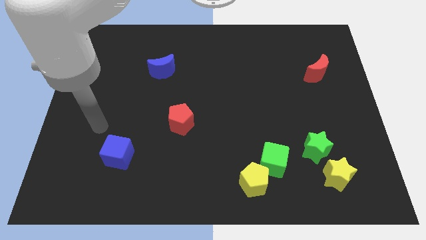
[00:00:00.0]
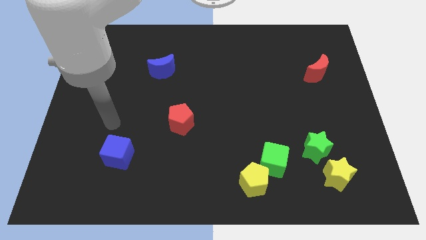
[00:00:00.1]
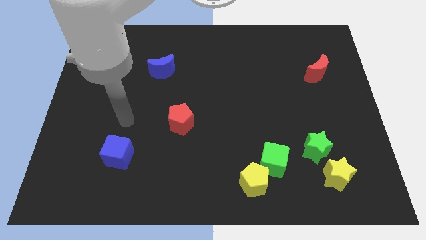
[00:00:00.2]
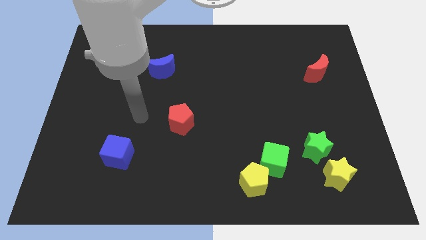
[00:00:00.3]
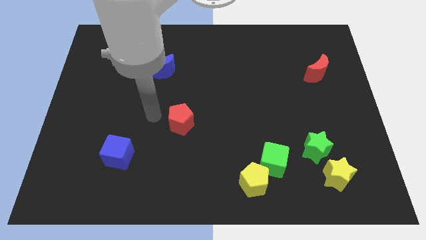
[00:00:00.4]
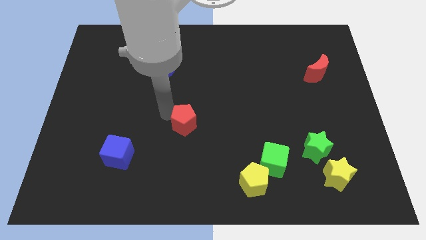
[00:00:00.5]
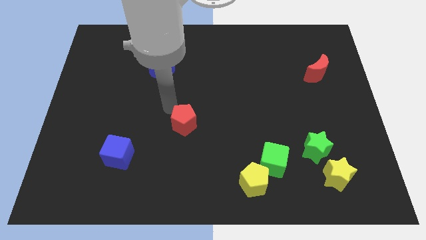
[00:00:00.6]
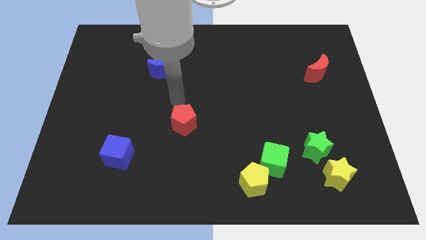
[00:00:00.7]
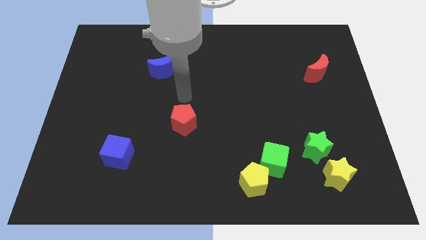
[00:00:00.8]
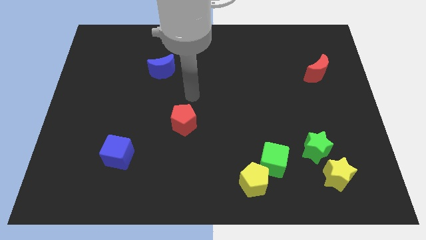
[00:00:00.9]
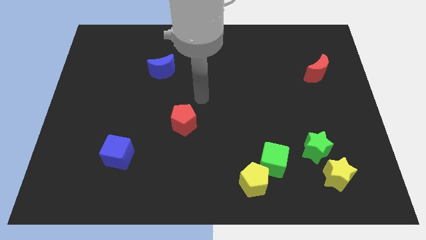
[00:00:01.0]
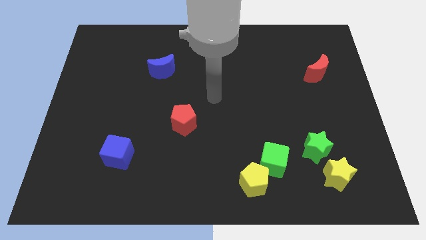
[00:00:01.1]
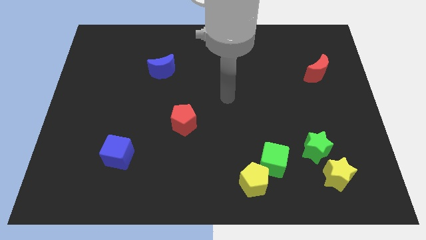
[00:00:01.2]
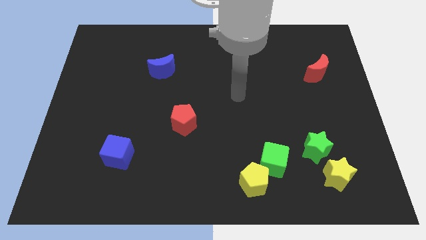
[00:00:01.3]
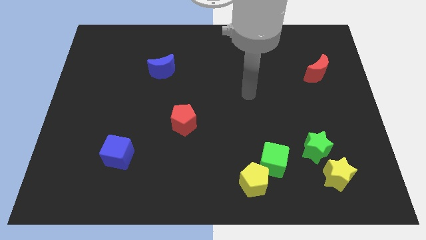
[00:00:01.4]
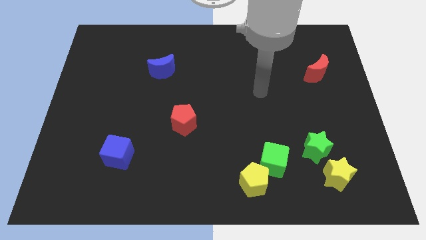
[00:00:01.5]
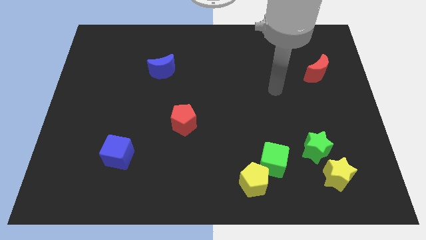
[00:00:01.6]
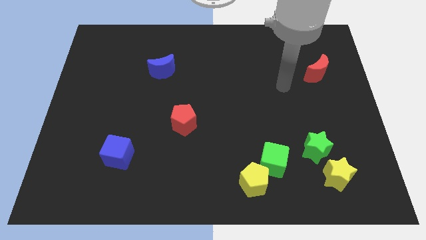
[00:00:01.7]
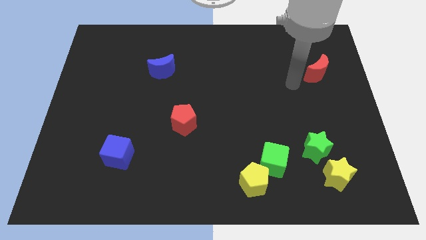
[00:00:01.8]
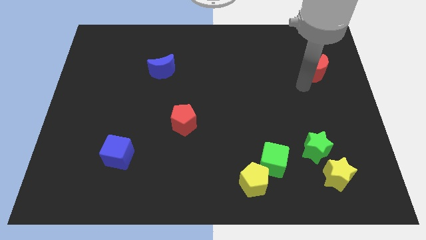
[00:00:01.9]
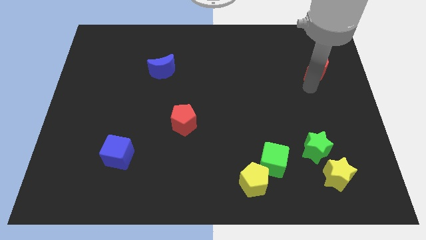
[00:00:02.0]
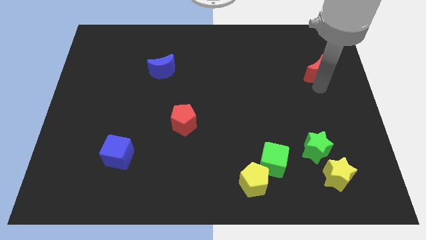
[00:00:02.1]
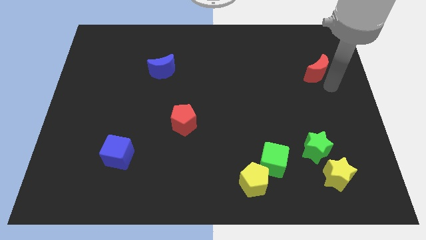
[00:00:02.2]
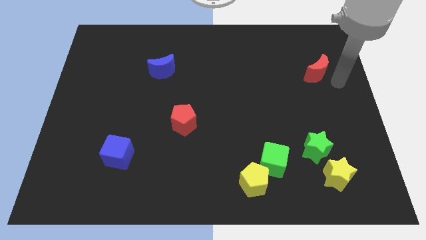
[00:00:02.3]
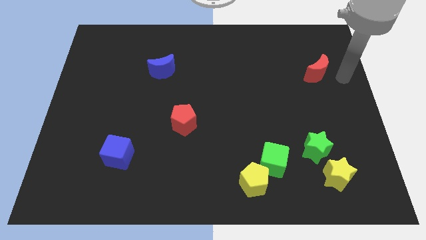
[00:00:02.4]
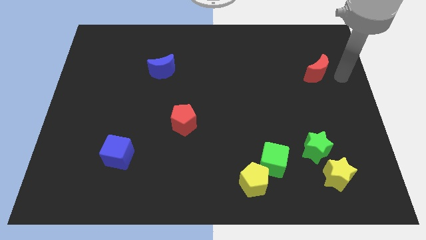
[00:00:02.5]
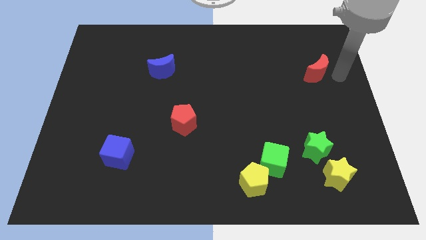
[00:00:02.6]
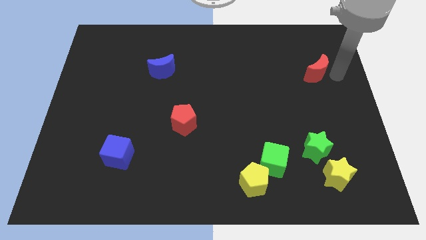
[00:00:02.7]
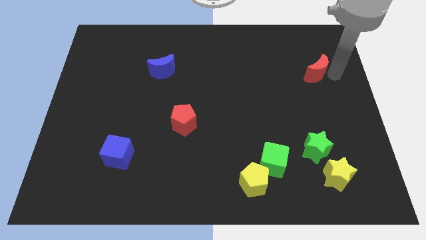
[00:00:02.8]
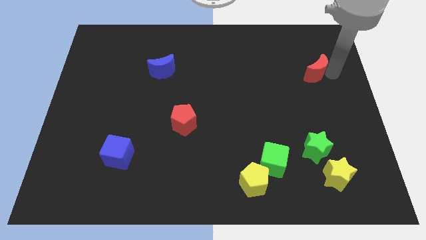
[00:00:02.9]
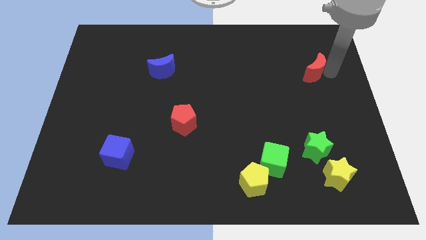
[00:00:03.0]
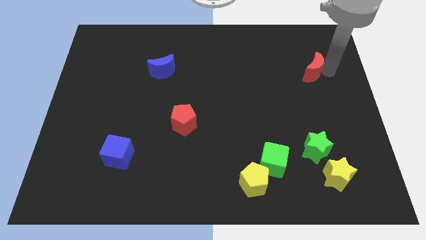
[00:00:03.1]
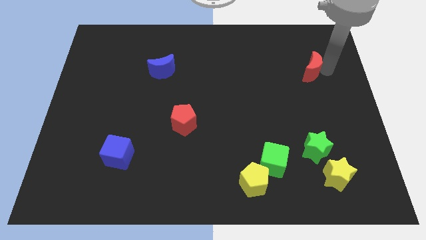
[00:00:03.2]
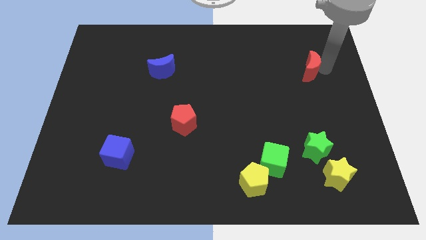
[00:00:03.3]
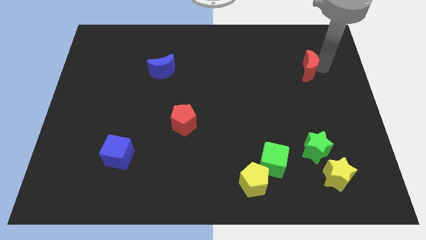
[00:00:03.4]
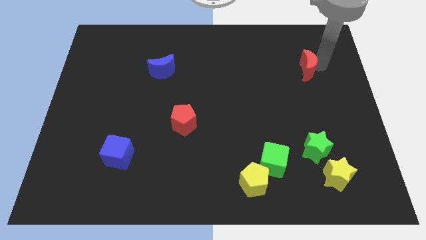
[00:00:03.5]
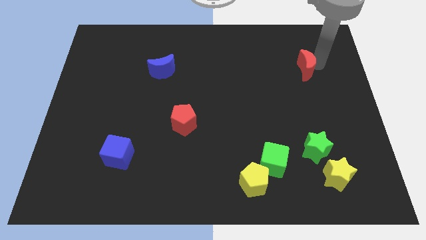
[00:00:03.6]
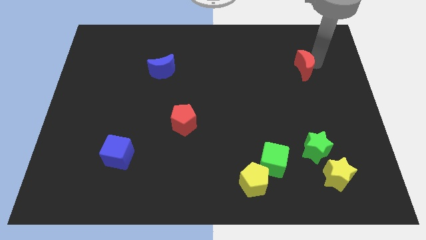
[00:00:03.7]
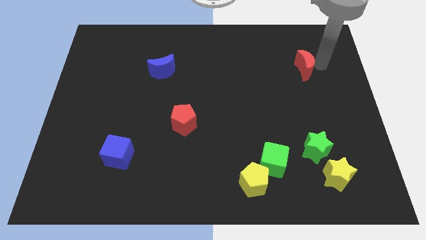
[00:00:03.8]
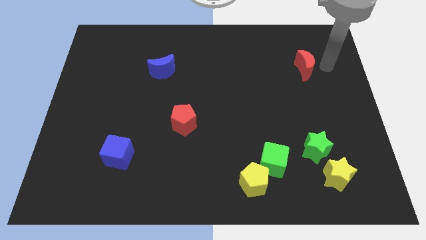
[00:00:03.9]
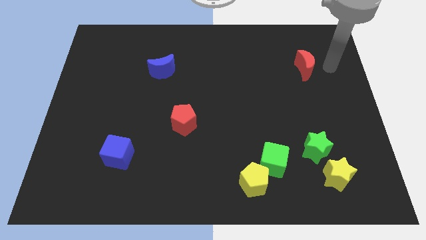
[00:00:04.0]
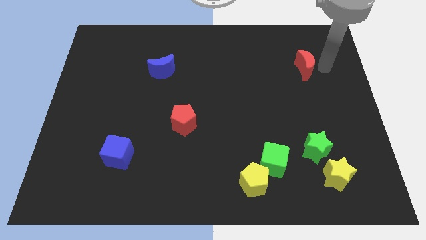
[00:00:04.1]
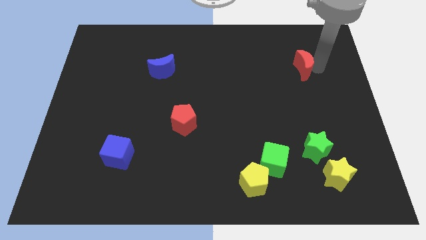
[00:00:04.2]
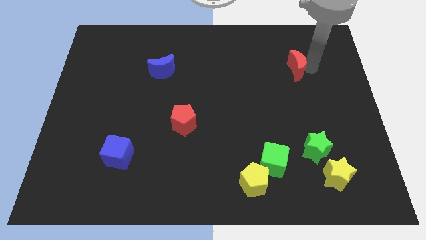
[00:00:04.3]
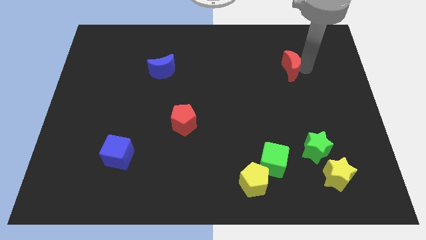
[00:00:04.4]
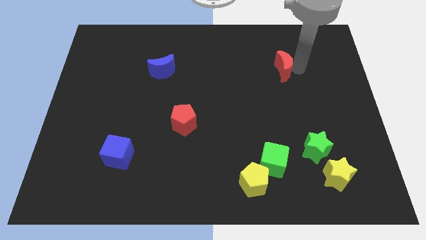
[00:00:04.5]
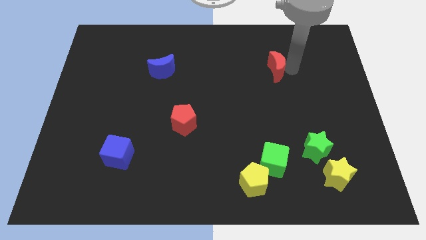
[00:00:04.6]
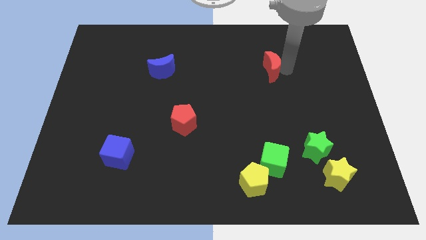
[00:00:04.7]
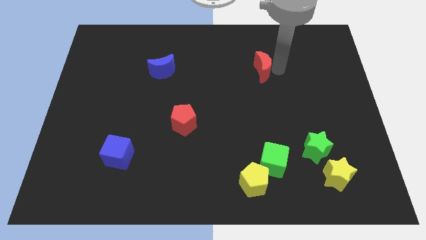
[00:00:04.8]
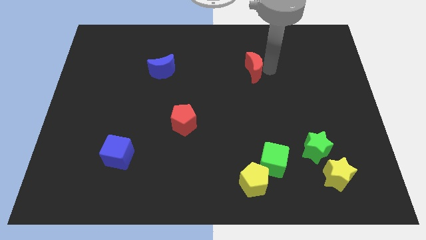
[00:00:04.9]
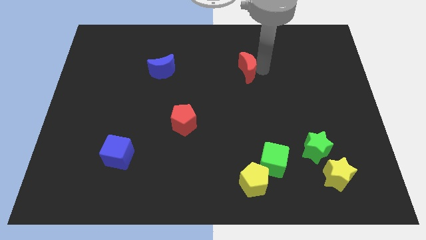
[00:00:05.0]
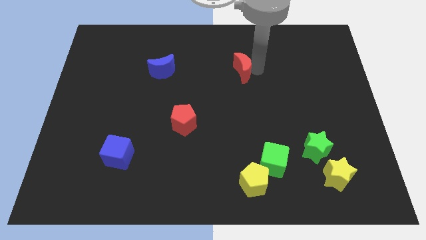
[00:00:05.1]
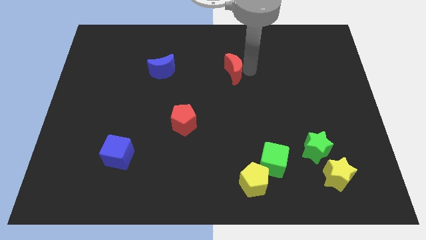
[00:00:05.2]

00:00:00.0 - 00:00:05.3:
push the red moon to the left

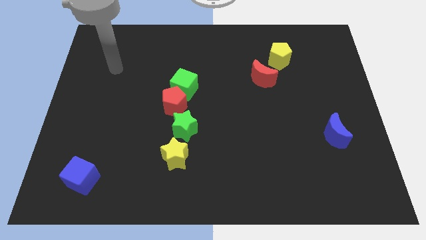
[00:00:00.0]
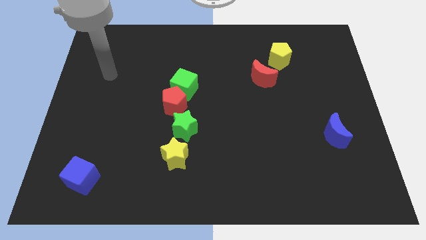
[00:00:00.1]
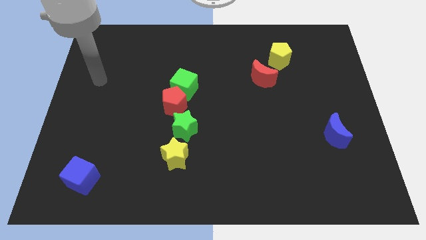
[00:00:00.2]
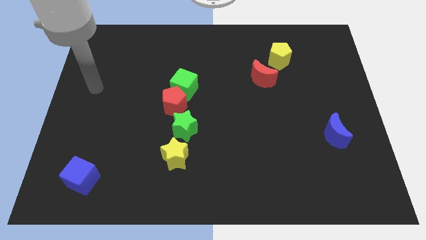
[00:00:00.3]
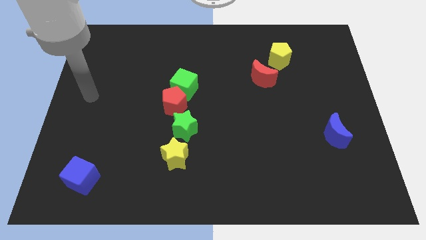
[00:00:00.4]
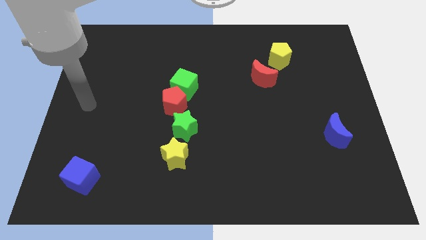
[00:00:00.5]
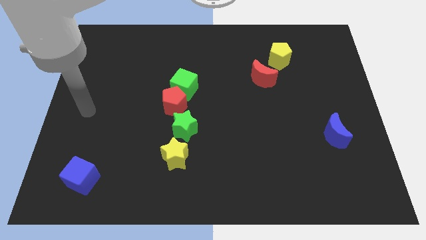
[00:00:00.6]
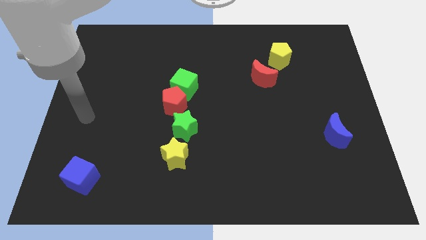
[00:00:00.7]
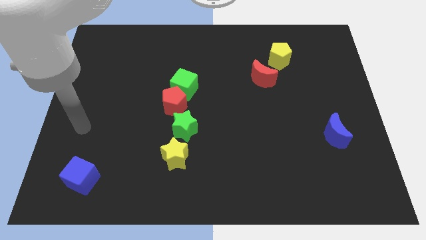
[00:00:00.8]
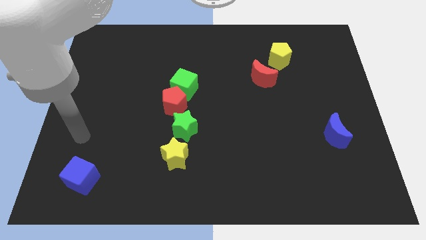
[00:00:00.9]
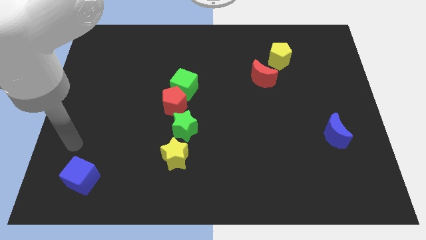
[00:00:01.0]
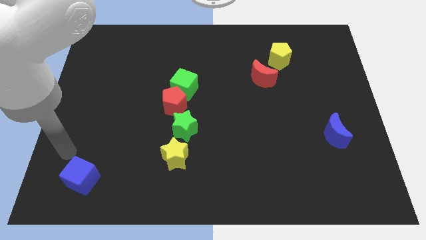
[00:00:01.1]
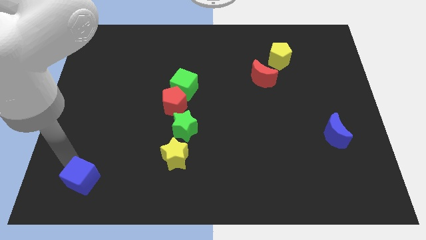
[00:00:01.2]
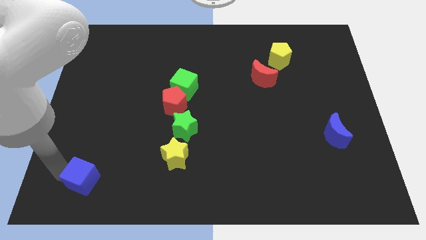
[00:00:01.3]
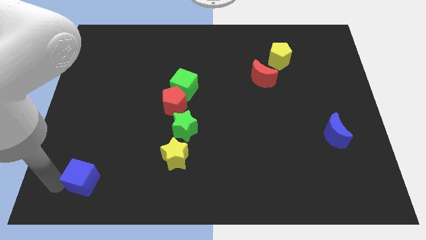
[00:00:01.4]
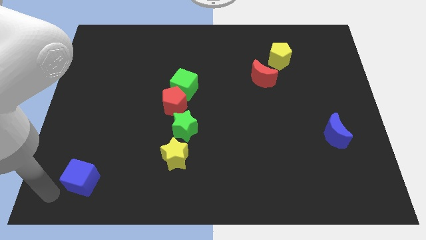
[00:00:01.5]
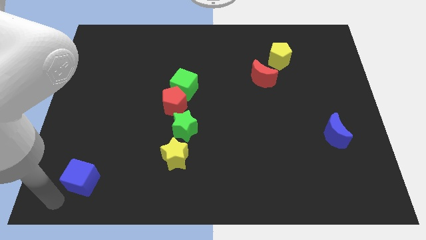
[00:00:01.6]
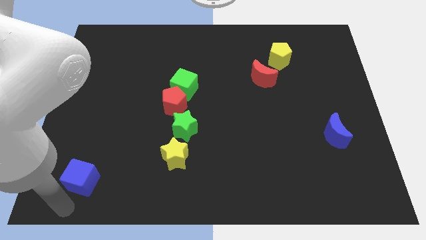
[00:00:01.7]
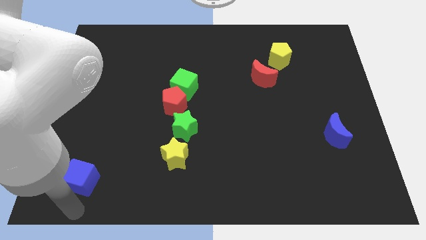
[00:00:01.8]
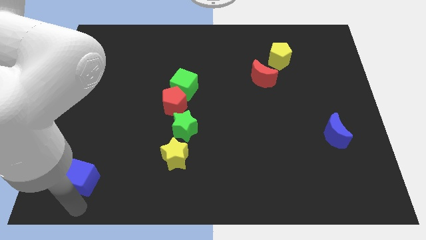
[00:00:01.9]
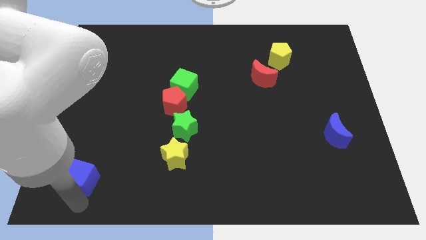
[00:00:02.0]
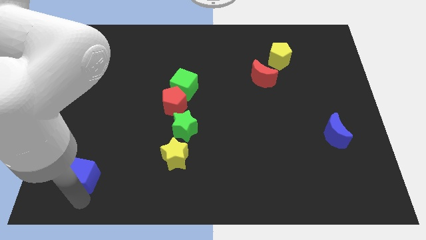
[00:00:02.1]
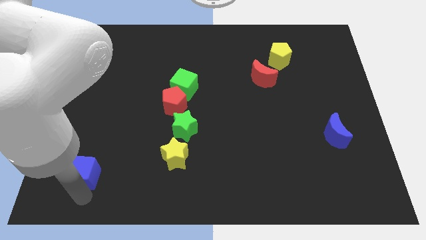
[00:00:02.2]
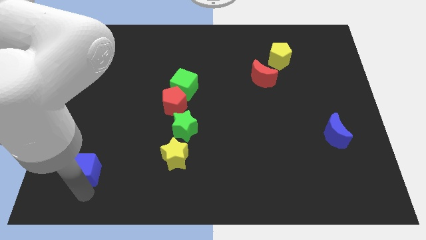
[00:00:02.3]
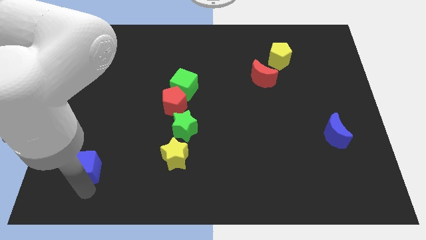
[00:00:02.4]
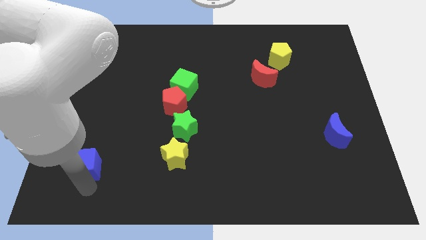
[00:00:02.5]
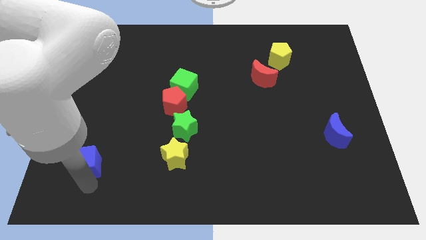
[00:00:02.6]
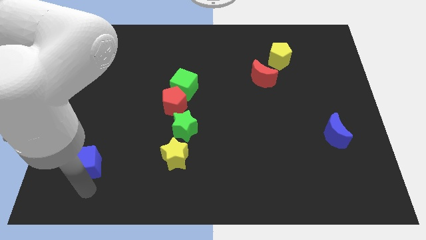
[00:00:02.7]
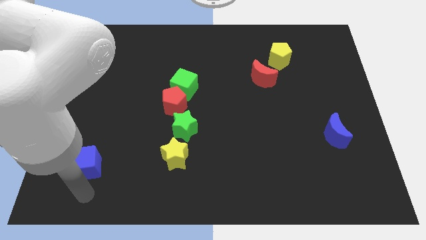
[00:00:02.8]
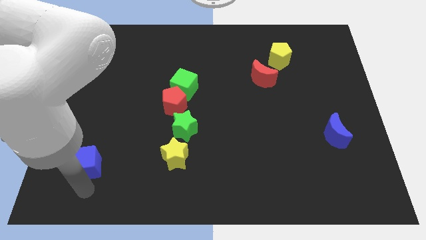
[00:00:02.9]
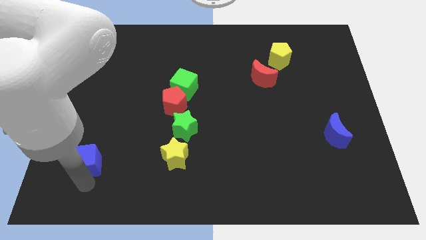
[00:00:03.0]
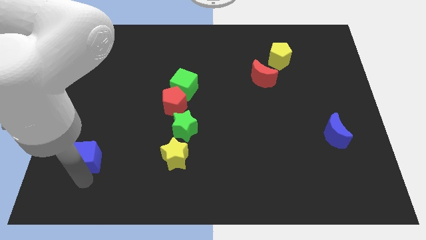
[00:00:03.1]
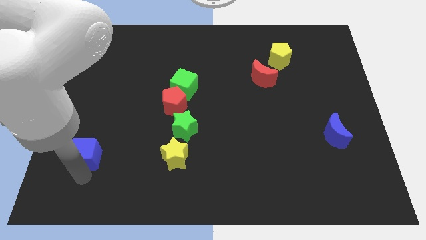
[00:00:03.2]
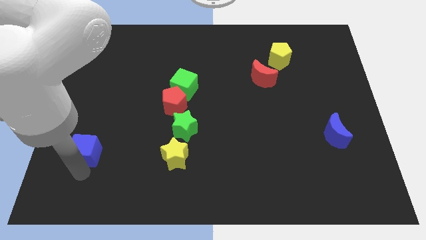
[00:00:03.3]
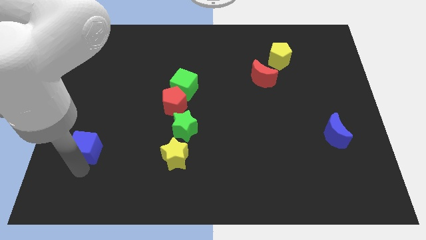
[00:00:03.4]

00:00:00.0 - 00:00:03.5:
move the blue cube a little up
